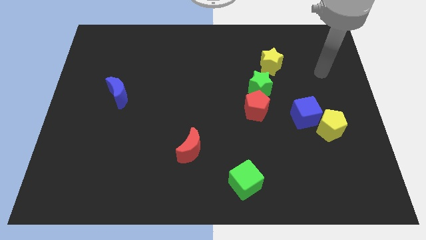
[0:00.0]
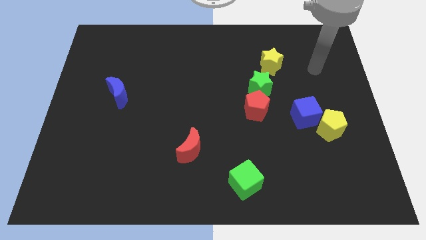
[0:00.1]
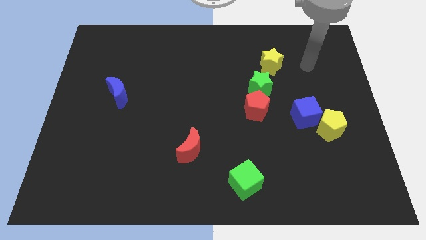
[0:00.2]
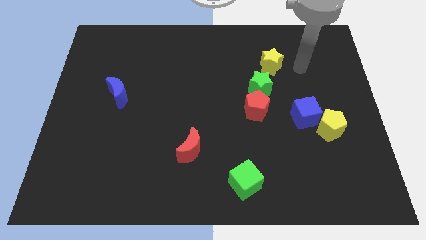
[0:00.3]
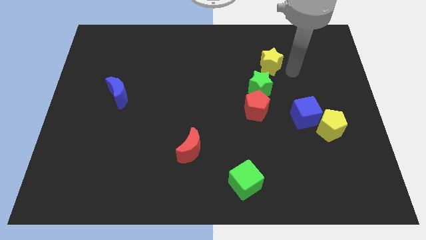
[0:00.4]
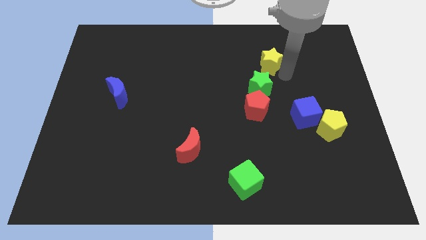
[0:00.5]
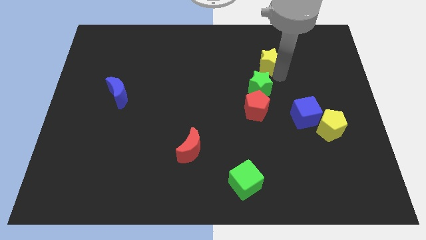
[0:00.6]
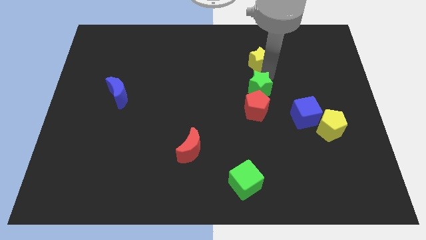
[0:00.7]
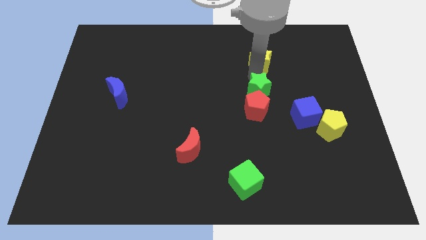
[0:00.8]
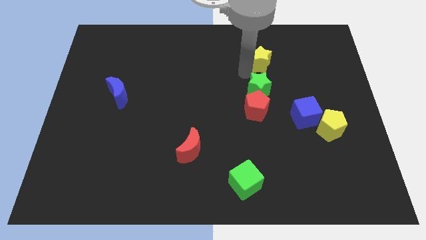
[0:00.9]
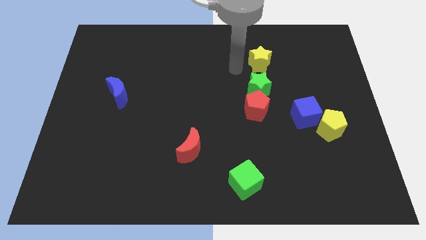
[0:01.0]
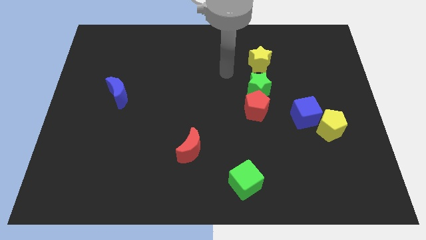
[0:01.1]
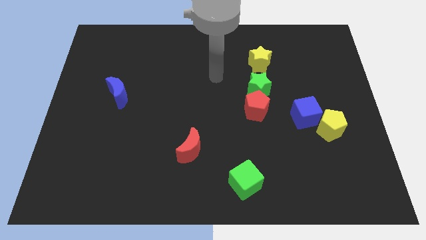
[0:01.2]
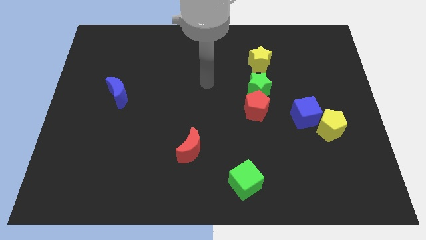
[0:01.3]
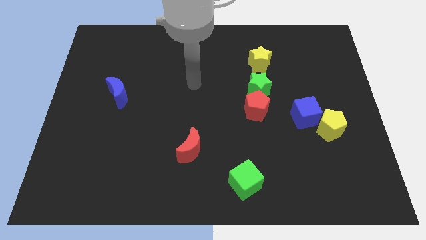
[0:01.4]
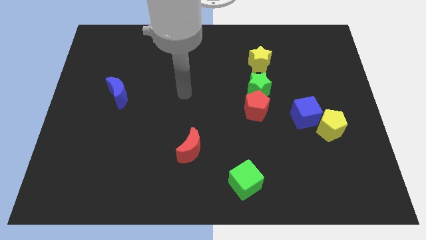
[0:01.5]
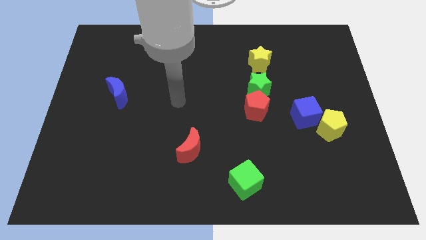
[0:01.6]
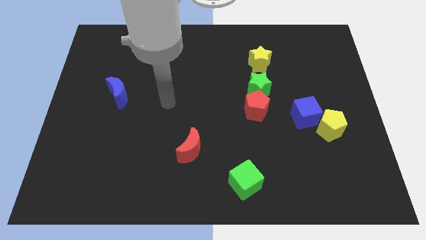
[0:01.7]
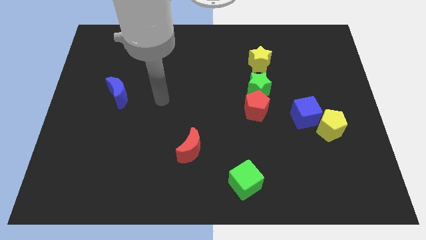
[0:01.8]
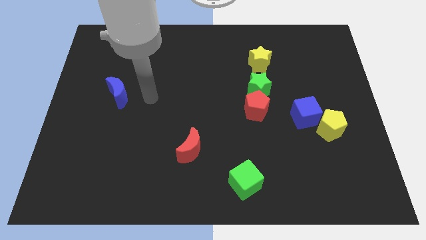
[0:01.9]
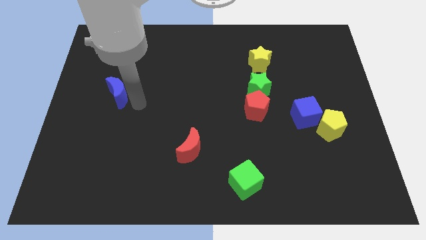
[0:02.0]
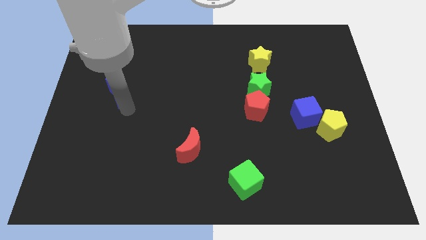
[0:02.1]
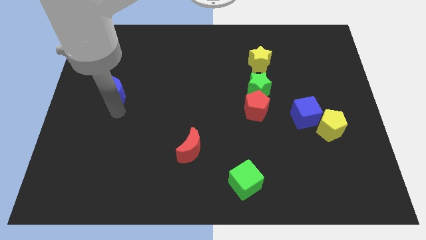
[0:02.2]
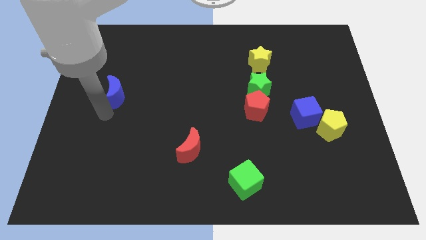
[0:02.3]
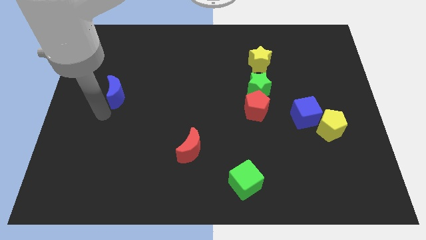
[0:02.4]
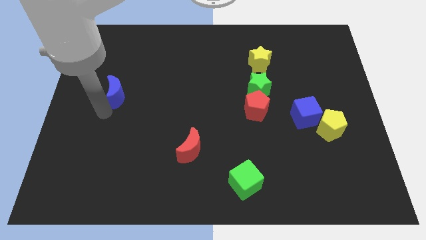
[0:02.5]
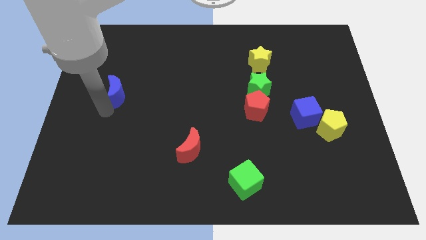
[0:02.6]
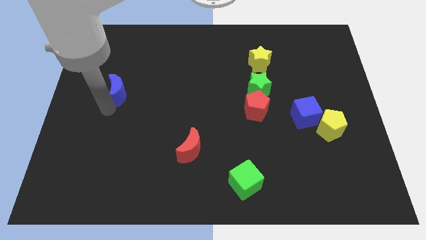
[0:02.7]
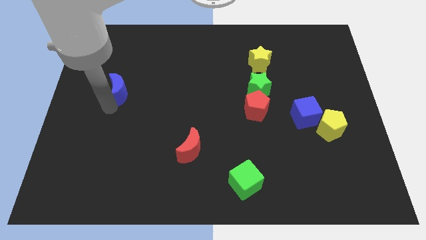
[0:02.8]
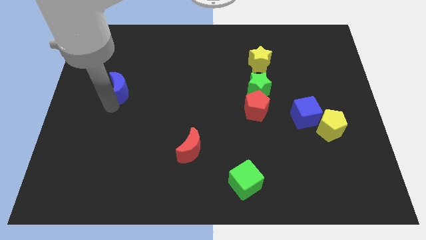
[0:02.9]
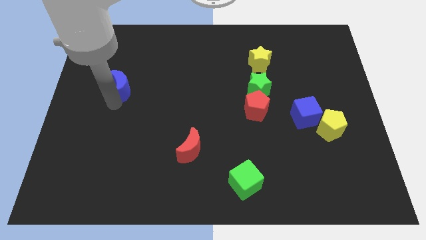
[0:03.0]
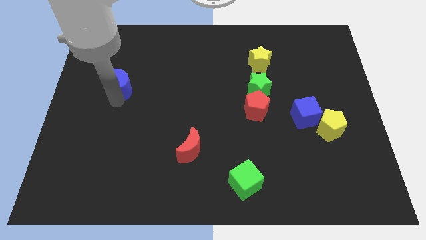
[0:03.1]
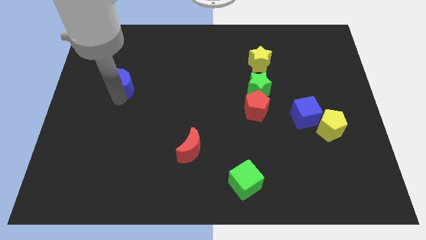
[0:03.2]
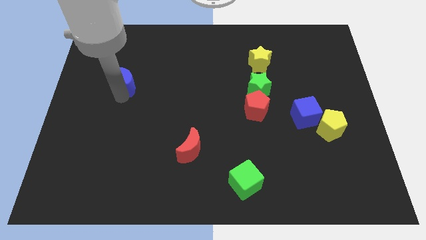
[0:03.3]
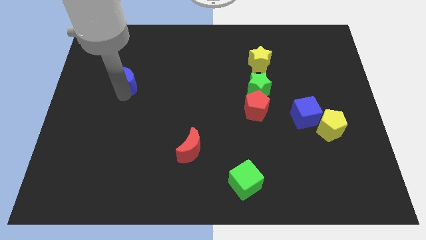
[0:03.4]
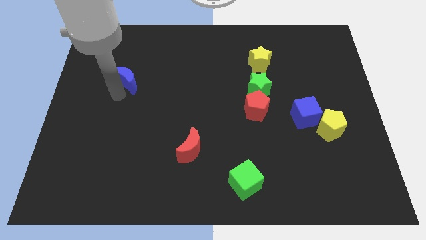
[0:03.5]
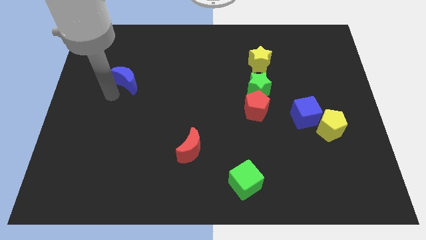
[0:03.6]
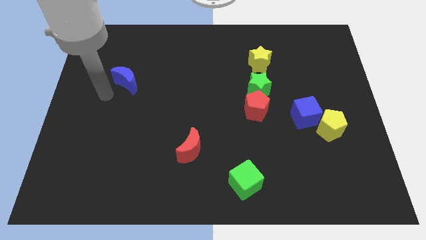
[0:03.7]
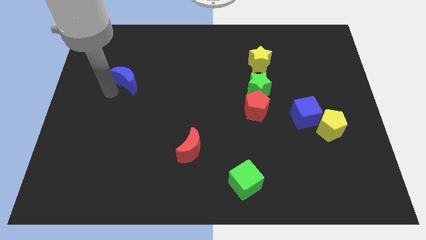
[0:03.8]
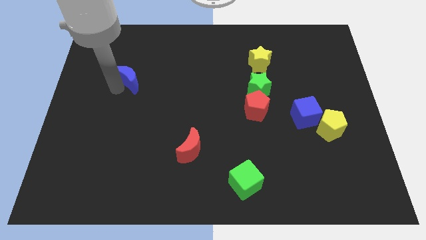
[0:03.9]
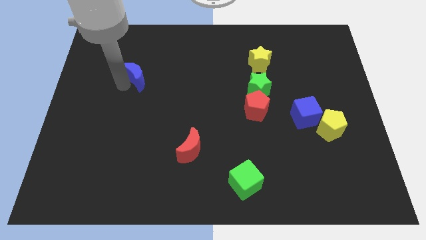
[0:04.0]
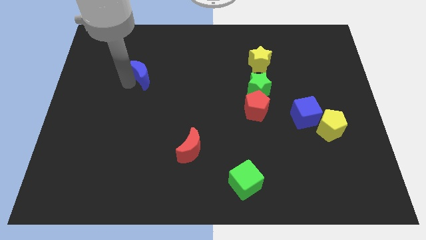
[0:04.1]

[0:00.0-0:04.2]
slightly slide the blue moon upwards and right diagonally

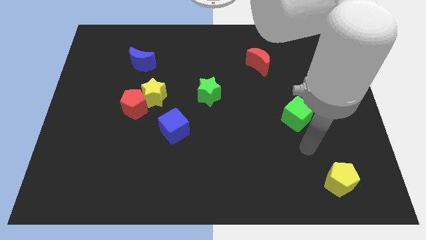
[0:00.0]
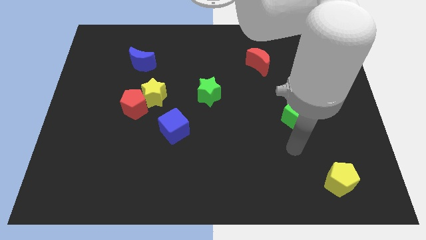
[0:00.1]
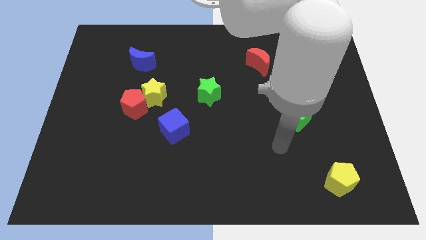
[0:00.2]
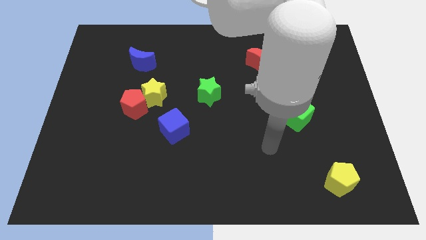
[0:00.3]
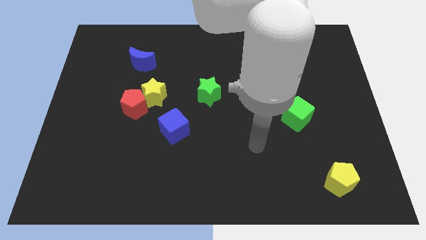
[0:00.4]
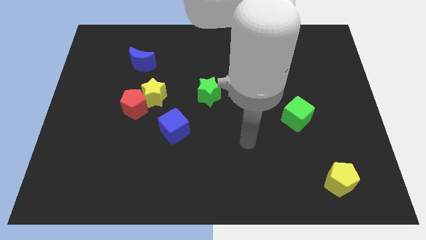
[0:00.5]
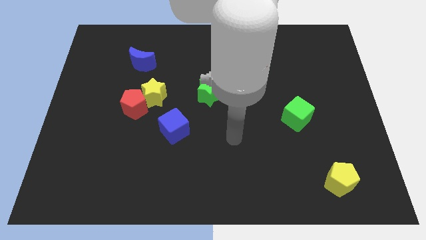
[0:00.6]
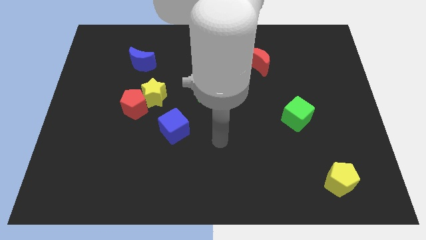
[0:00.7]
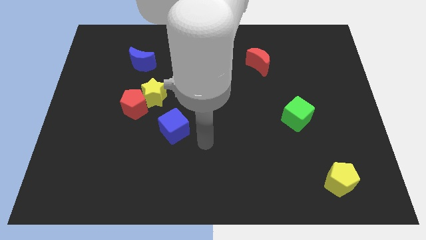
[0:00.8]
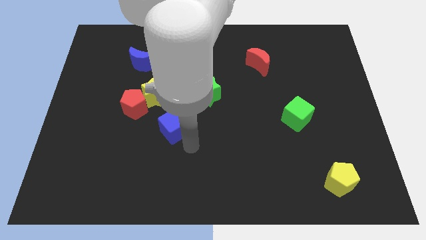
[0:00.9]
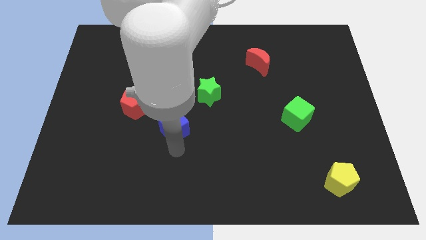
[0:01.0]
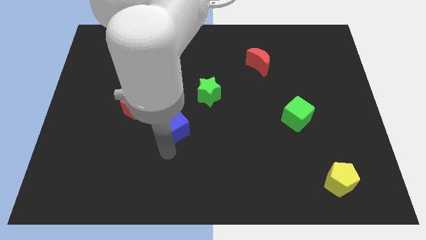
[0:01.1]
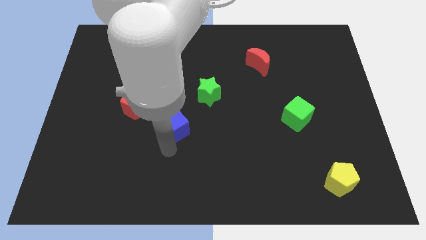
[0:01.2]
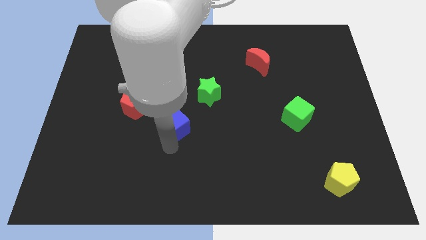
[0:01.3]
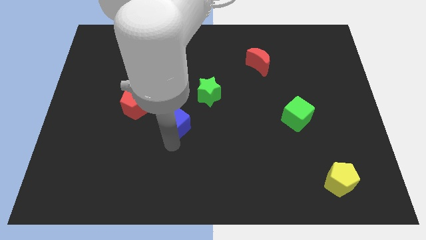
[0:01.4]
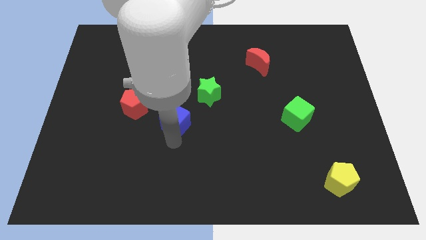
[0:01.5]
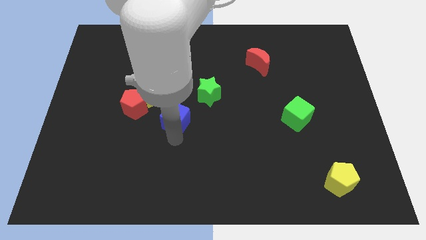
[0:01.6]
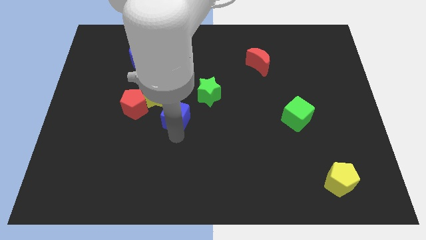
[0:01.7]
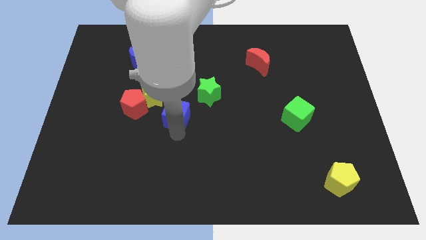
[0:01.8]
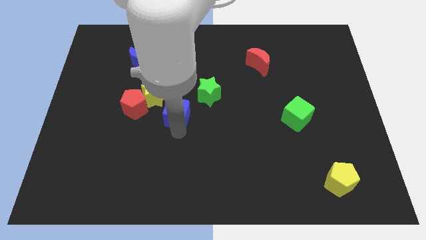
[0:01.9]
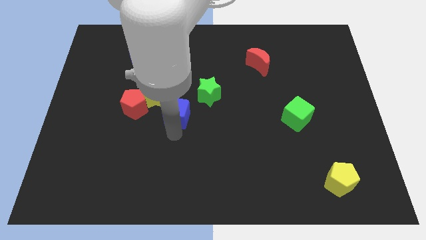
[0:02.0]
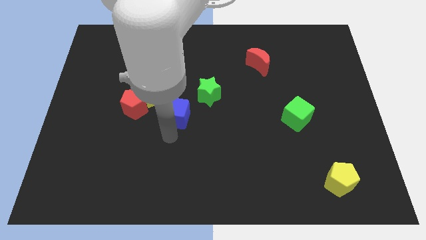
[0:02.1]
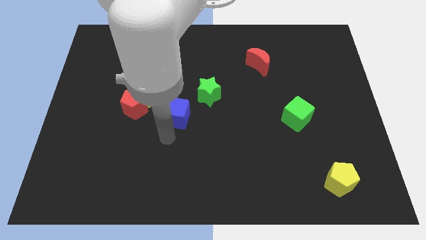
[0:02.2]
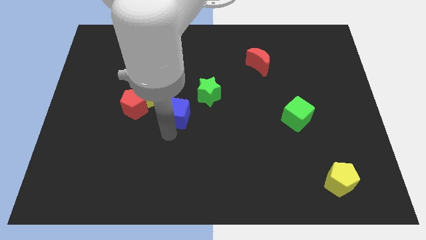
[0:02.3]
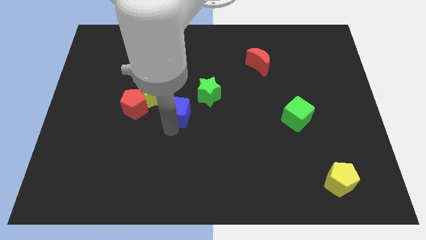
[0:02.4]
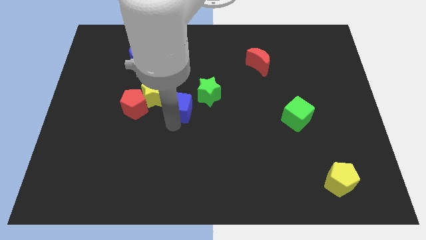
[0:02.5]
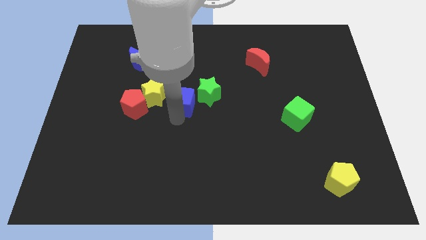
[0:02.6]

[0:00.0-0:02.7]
slide the blue cube slightly upwards

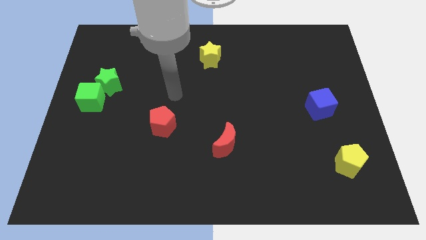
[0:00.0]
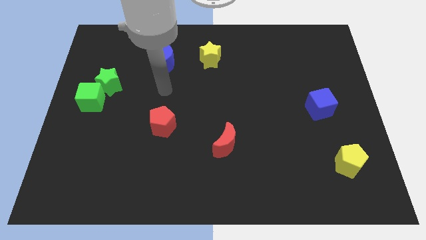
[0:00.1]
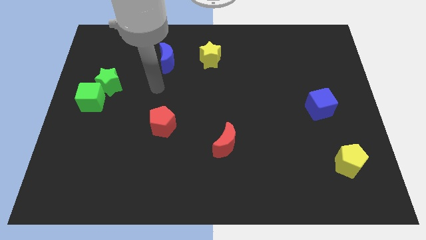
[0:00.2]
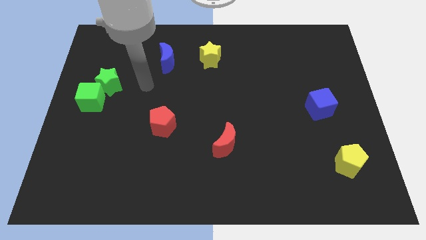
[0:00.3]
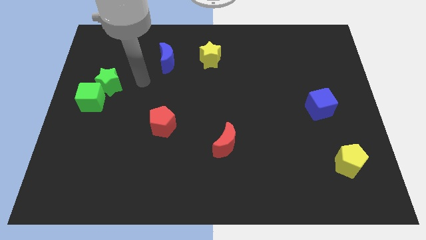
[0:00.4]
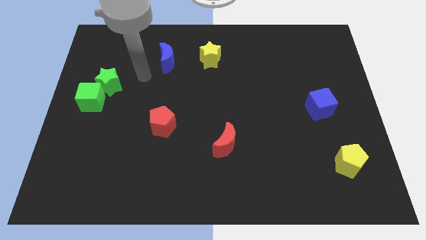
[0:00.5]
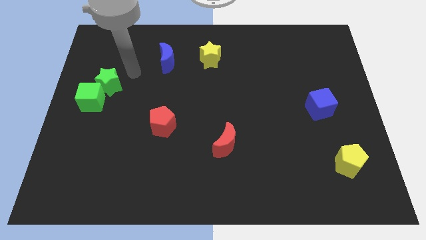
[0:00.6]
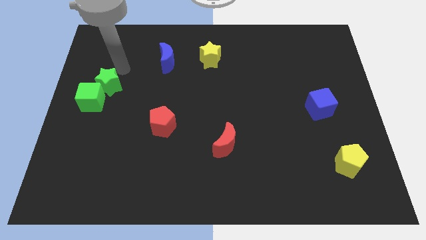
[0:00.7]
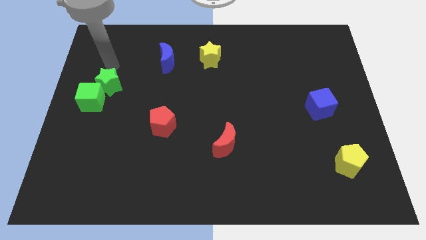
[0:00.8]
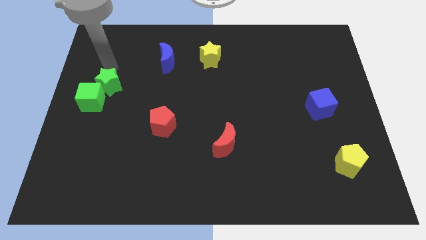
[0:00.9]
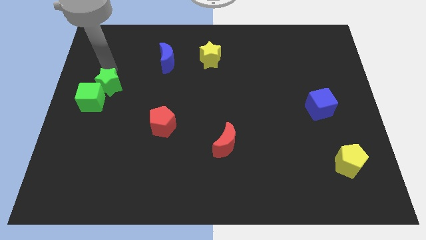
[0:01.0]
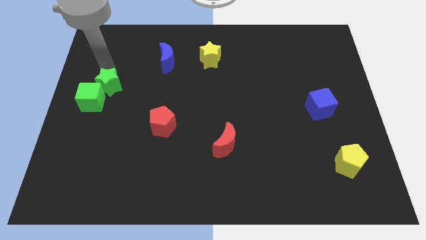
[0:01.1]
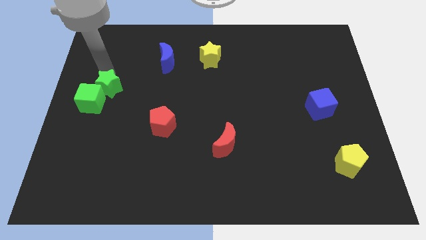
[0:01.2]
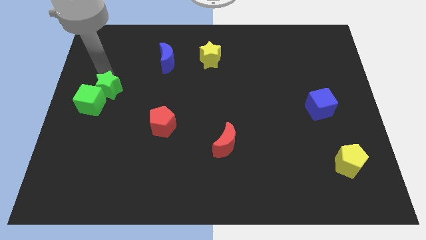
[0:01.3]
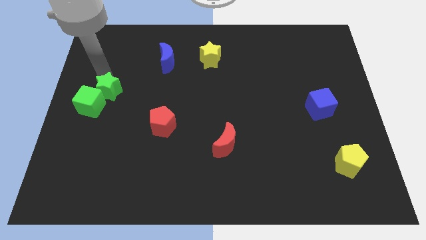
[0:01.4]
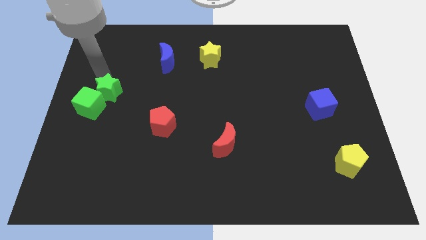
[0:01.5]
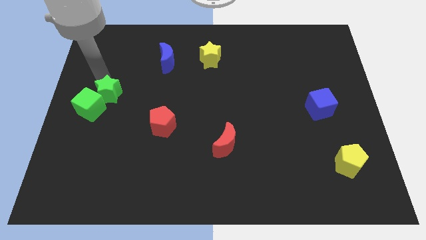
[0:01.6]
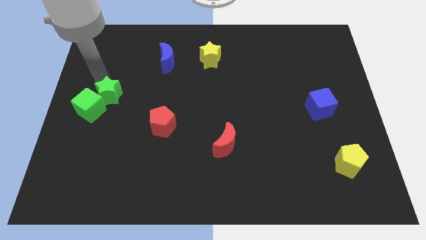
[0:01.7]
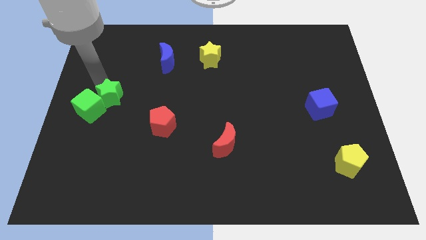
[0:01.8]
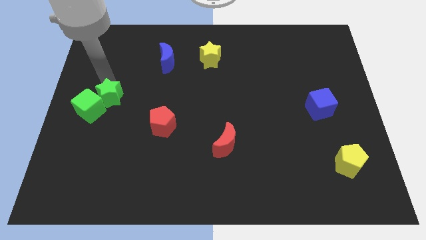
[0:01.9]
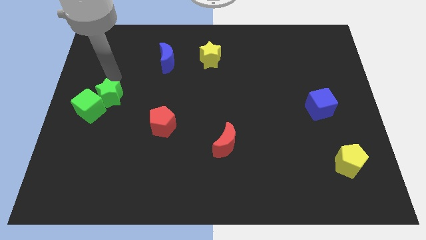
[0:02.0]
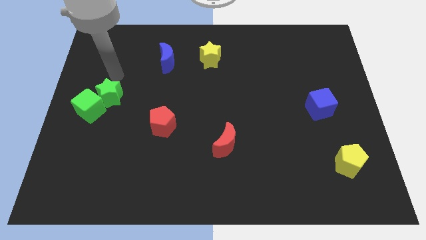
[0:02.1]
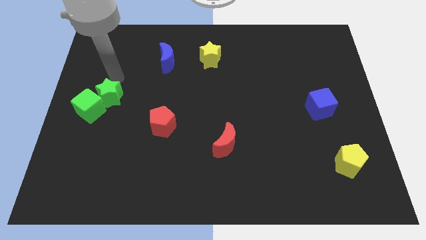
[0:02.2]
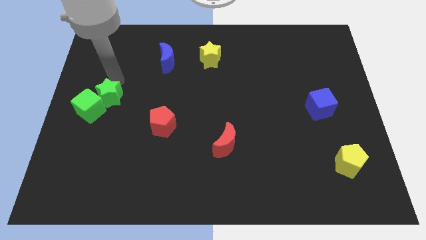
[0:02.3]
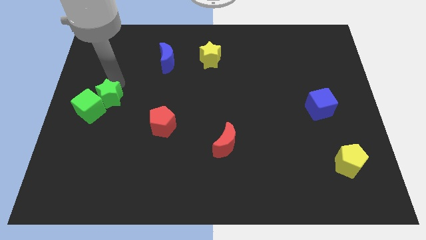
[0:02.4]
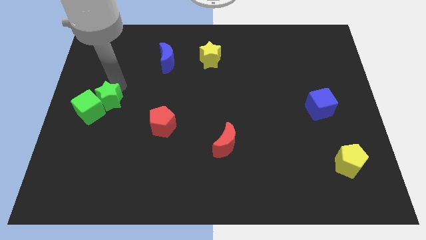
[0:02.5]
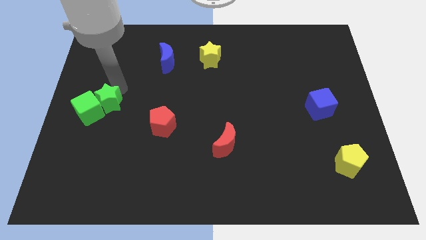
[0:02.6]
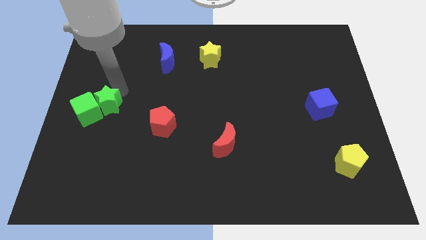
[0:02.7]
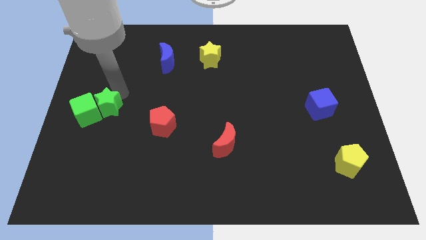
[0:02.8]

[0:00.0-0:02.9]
move the green star slightly downwards
